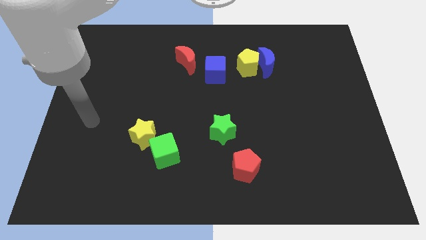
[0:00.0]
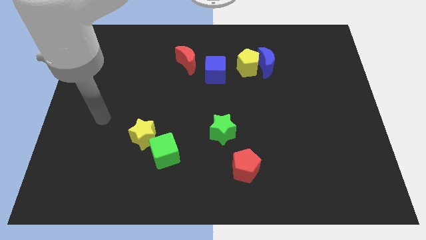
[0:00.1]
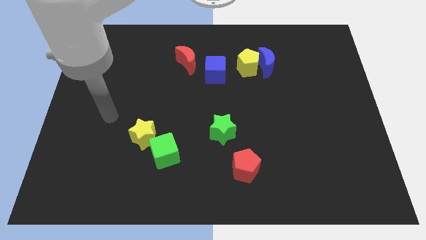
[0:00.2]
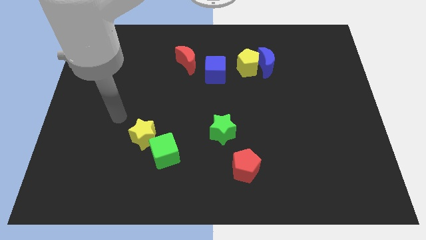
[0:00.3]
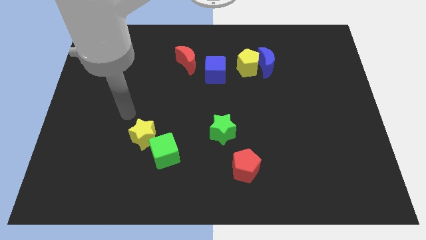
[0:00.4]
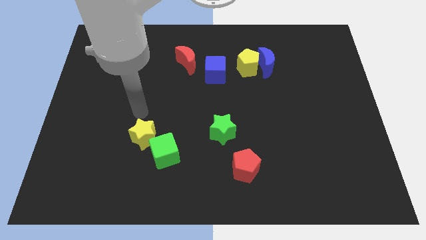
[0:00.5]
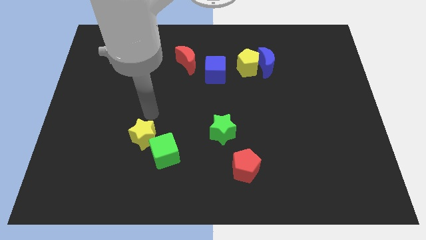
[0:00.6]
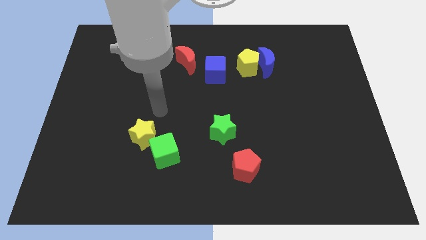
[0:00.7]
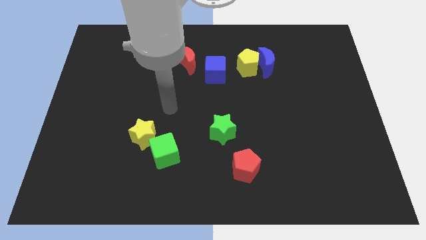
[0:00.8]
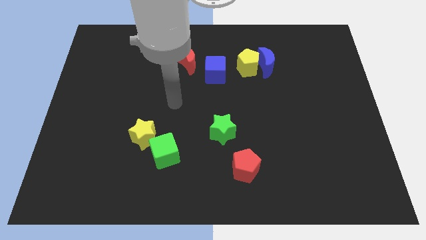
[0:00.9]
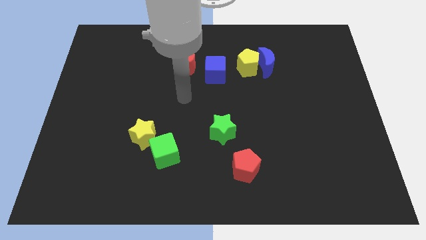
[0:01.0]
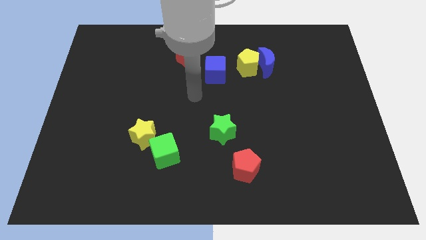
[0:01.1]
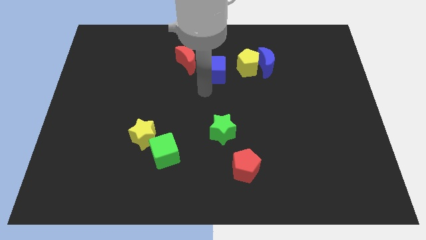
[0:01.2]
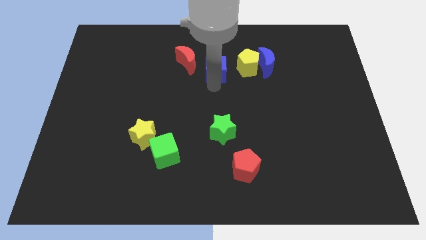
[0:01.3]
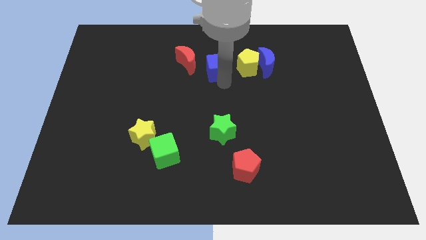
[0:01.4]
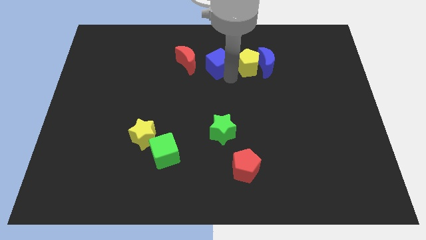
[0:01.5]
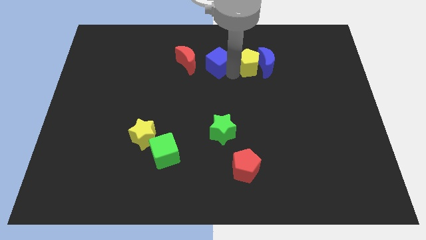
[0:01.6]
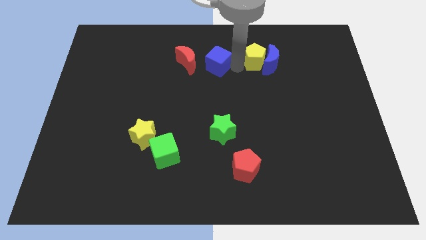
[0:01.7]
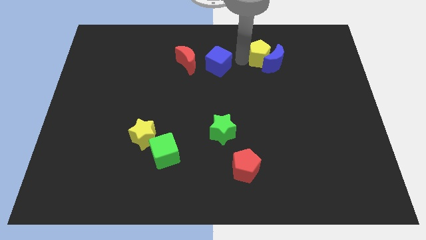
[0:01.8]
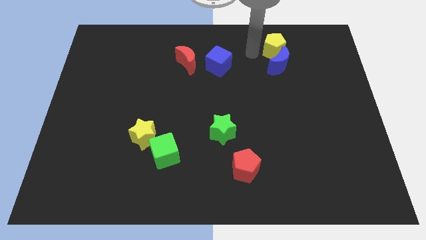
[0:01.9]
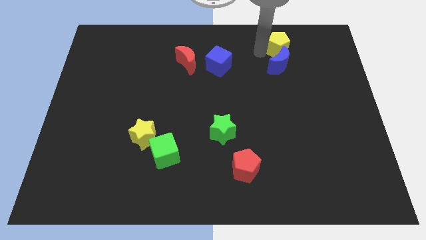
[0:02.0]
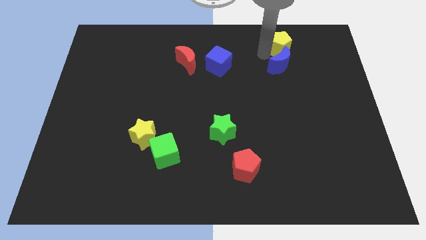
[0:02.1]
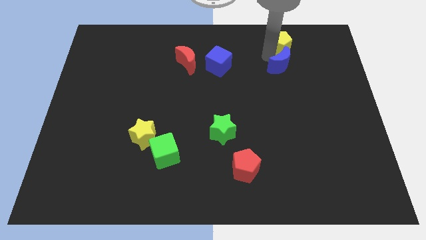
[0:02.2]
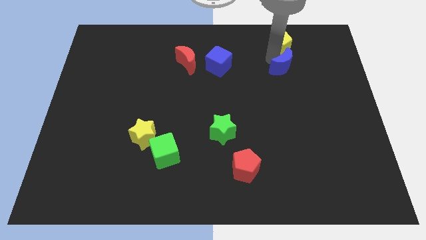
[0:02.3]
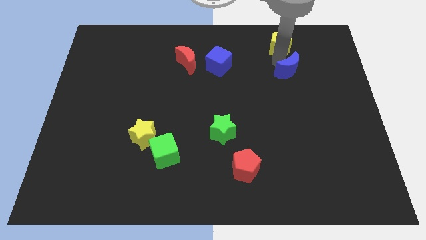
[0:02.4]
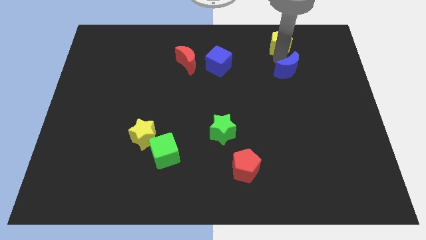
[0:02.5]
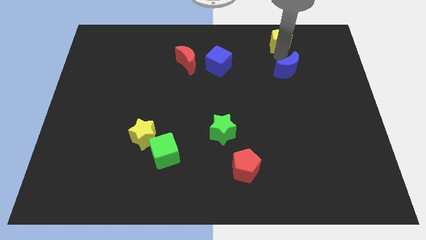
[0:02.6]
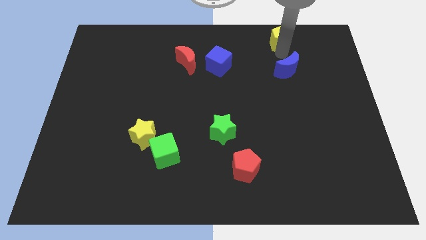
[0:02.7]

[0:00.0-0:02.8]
pull the blue moon apart from the yellow pentagon

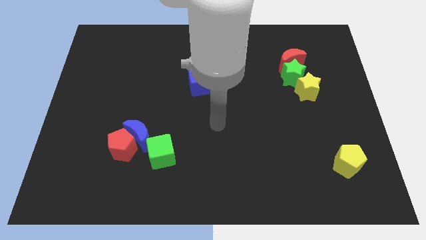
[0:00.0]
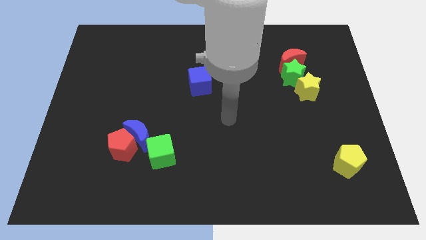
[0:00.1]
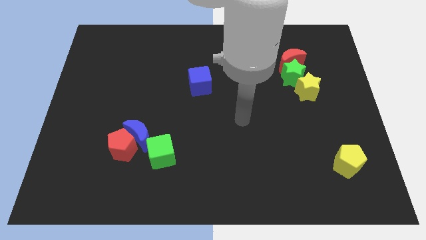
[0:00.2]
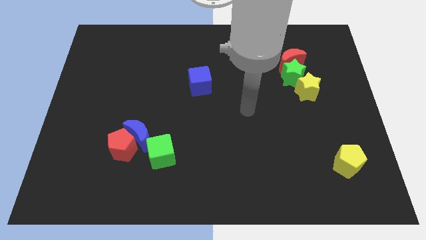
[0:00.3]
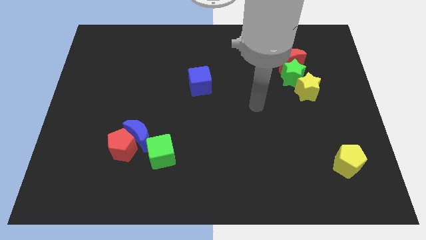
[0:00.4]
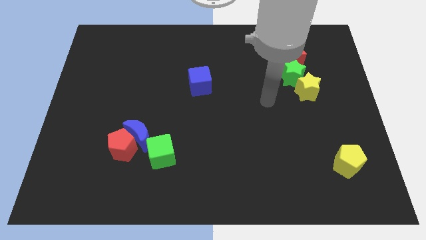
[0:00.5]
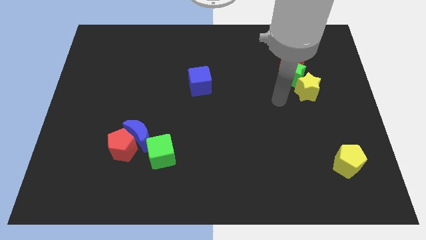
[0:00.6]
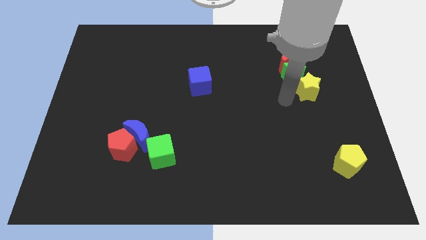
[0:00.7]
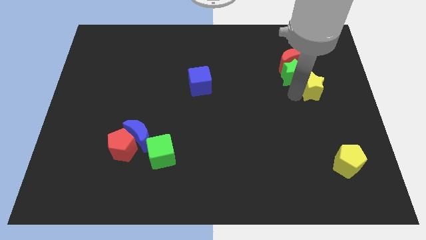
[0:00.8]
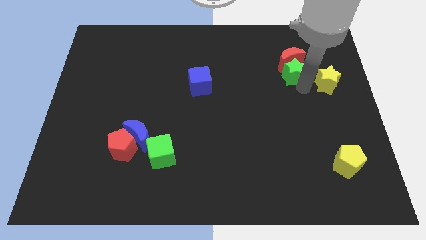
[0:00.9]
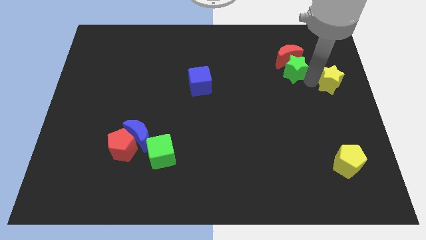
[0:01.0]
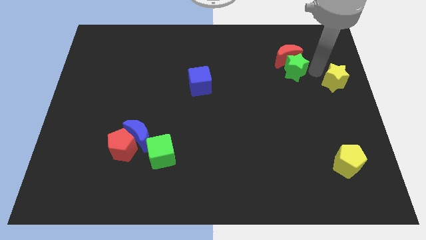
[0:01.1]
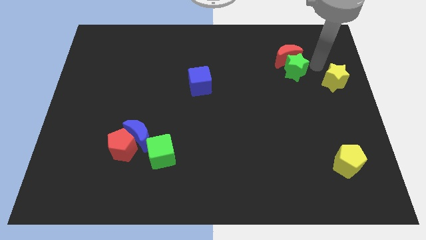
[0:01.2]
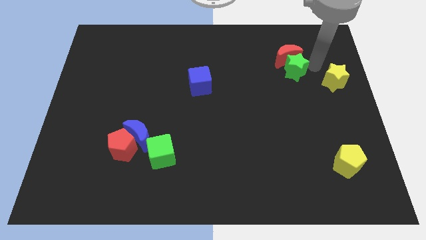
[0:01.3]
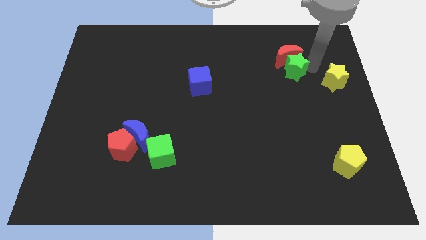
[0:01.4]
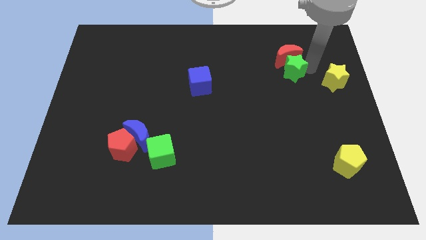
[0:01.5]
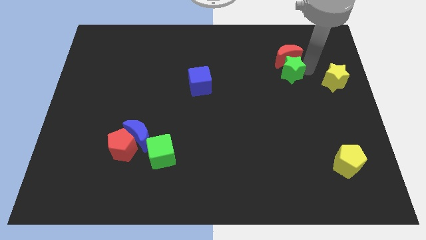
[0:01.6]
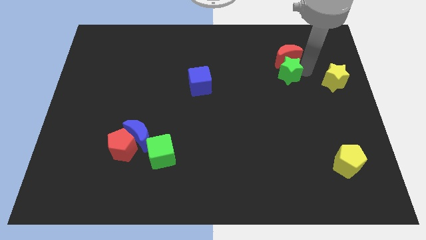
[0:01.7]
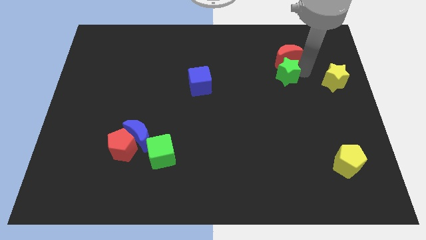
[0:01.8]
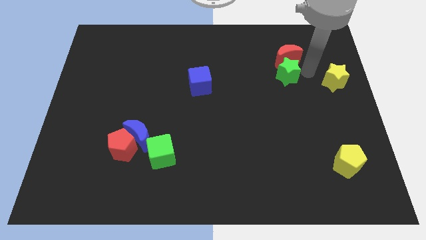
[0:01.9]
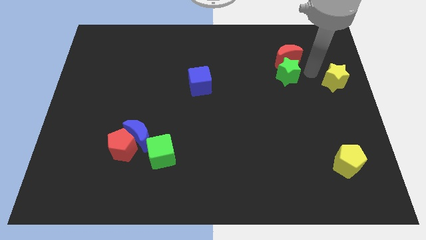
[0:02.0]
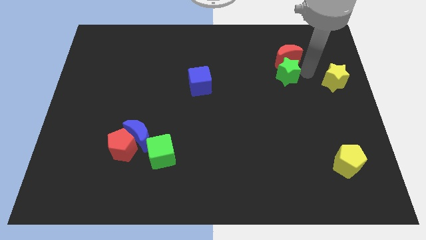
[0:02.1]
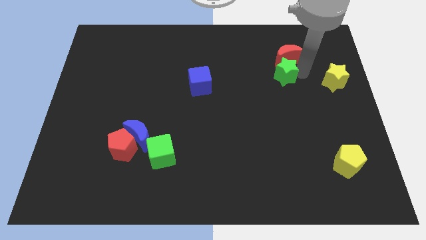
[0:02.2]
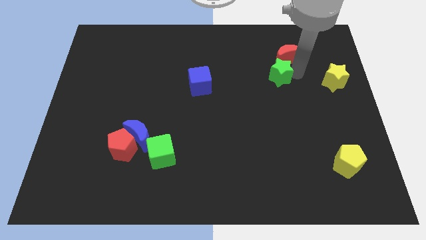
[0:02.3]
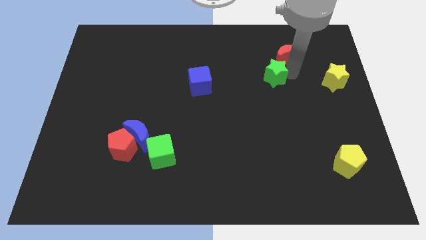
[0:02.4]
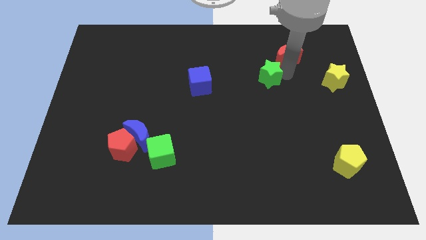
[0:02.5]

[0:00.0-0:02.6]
pull the green star apart from the red moon and yellow star

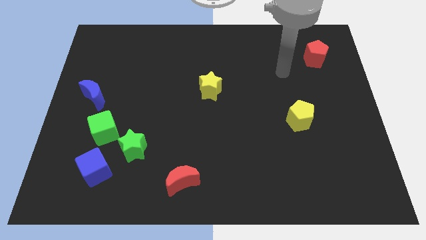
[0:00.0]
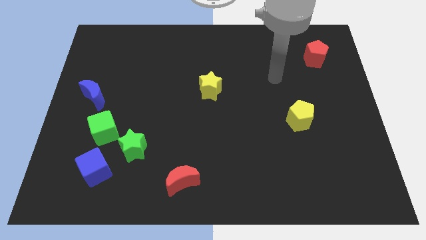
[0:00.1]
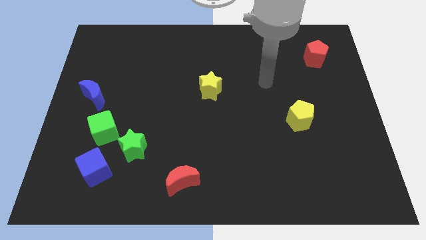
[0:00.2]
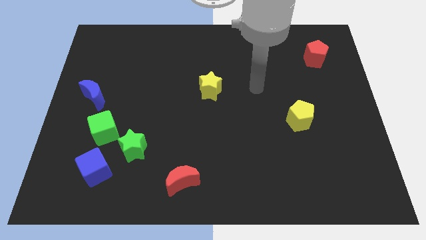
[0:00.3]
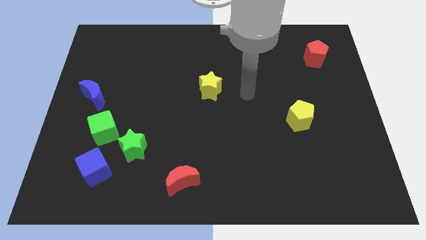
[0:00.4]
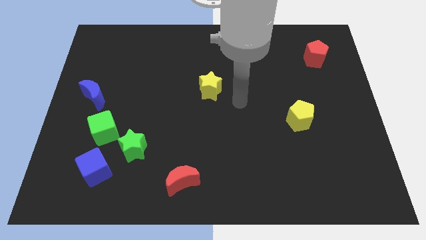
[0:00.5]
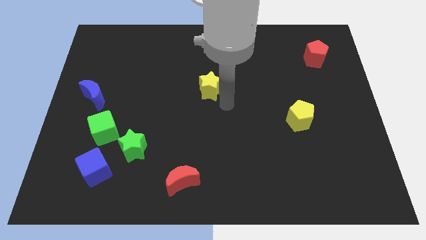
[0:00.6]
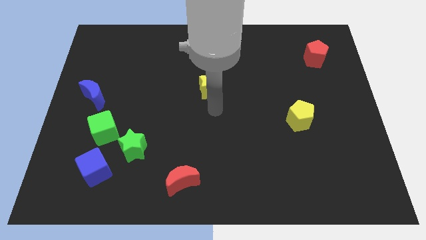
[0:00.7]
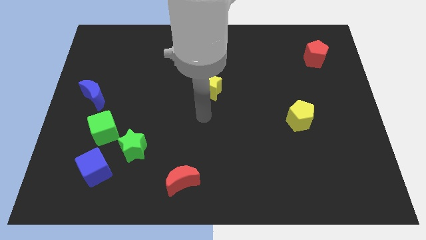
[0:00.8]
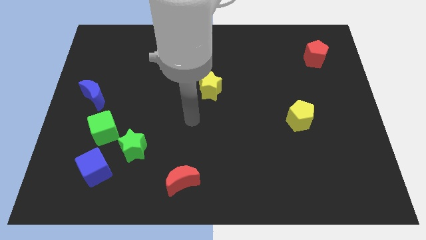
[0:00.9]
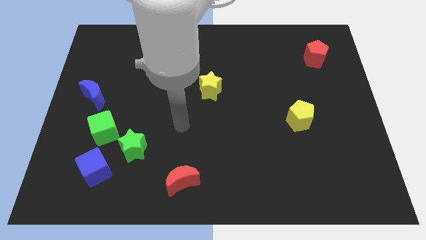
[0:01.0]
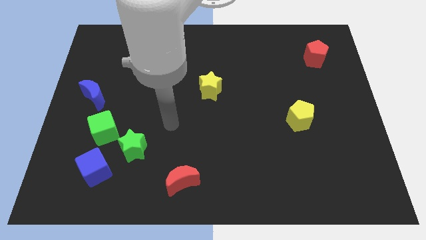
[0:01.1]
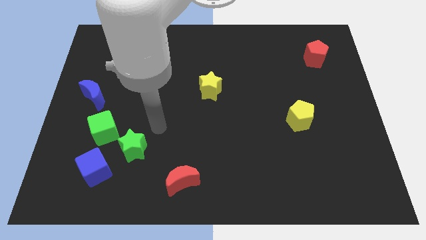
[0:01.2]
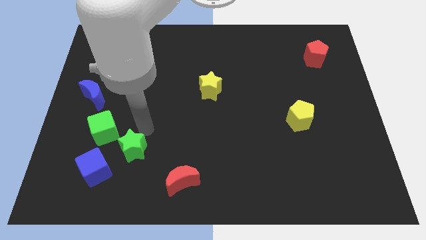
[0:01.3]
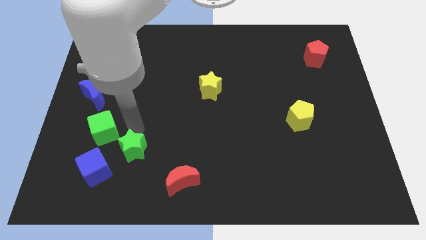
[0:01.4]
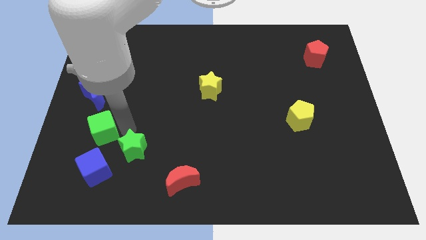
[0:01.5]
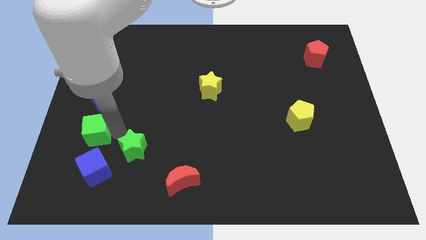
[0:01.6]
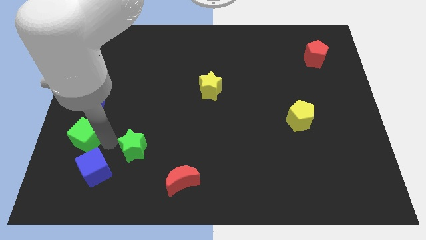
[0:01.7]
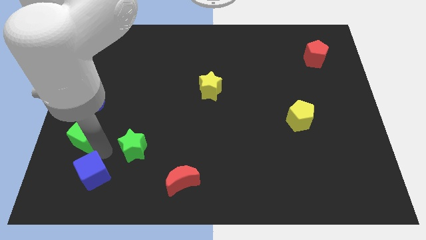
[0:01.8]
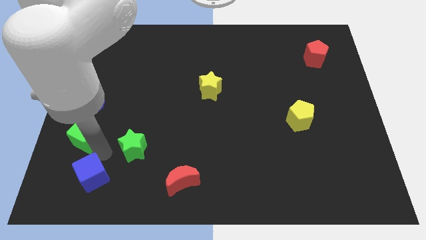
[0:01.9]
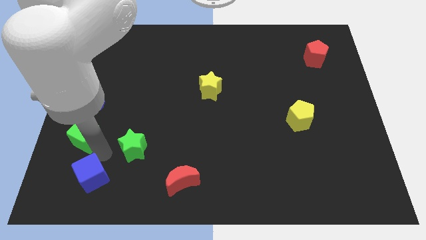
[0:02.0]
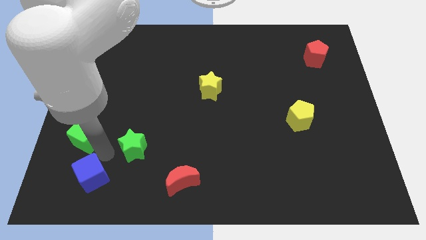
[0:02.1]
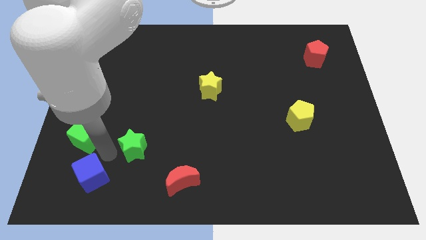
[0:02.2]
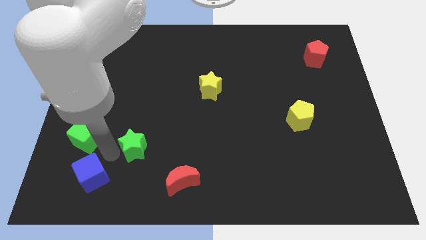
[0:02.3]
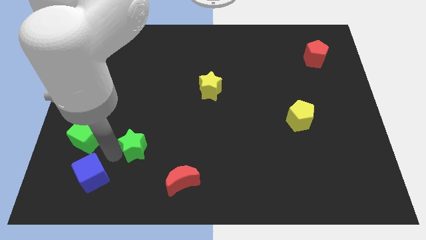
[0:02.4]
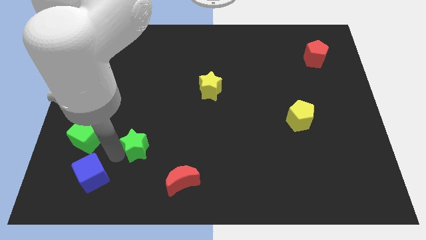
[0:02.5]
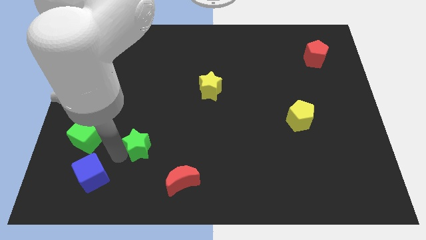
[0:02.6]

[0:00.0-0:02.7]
move the green star away from the green cube and blue cube

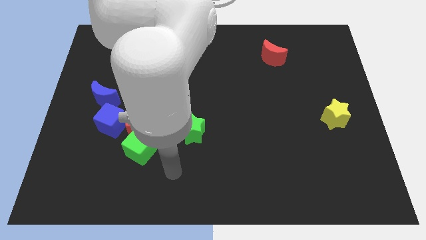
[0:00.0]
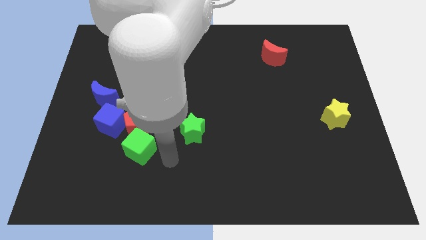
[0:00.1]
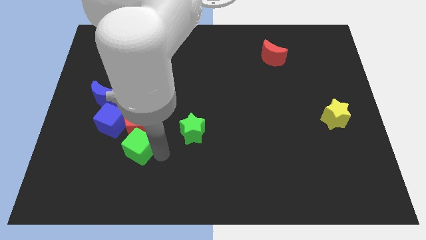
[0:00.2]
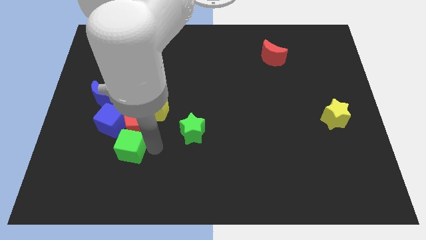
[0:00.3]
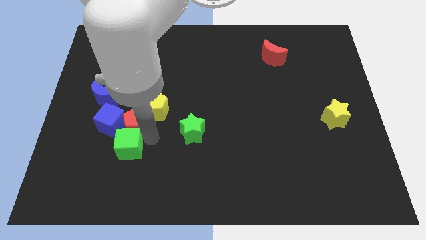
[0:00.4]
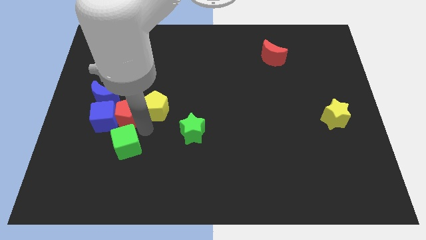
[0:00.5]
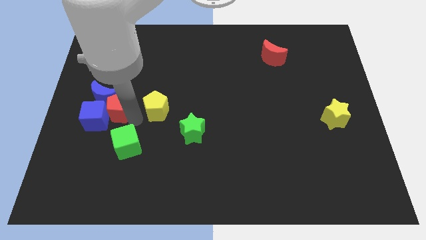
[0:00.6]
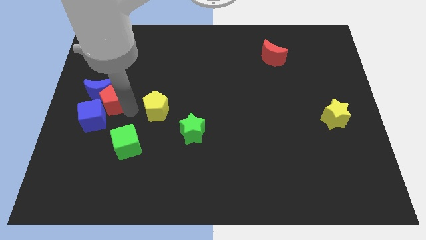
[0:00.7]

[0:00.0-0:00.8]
pull the yellow pentagon apart from the red pentagon

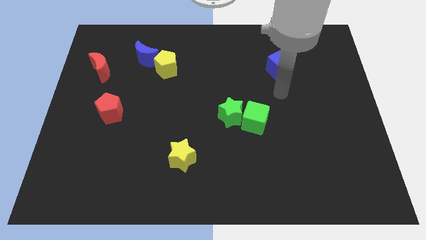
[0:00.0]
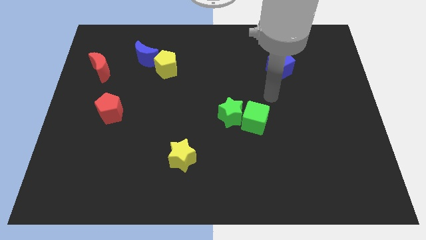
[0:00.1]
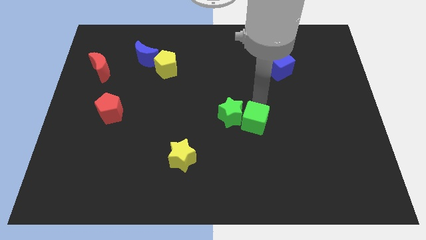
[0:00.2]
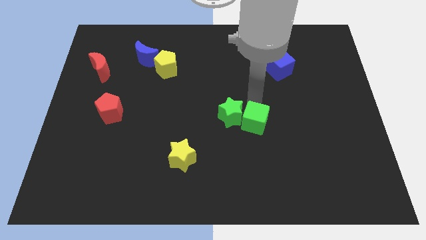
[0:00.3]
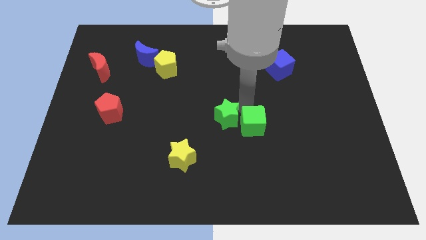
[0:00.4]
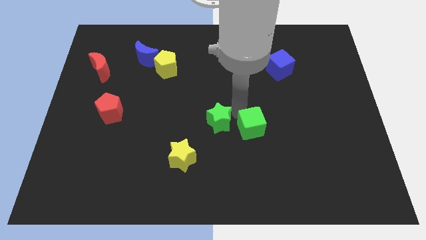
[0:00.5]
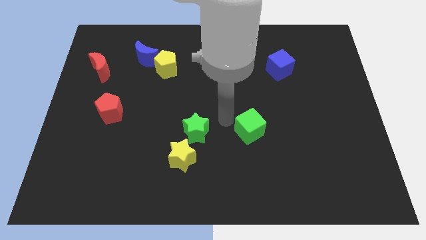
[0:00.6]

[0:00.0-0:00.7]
move the green cube away from the green star
